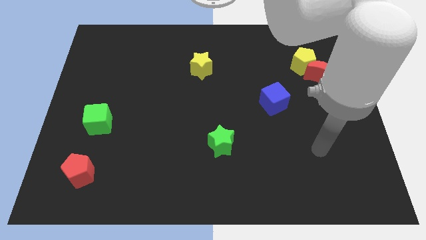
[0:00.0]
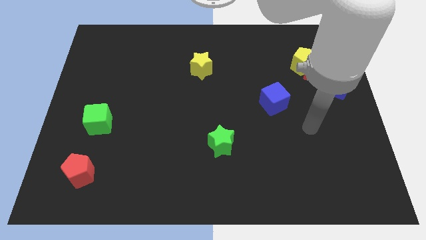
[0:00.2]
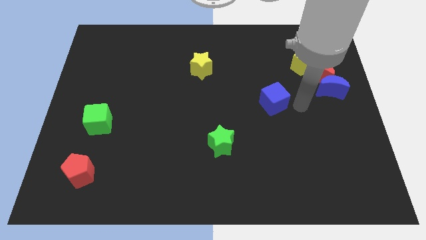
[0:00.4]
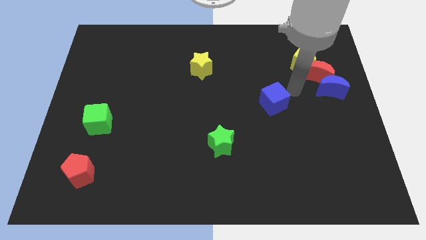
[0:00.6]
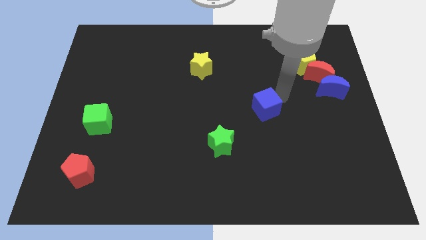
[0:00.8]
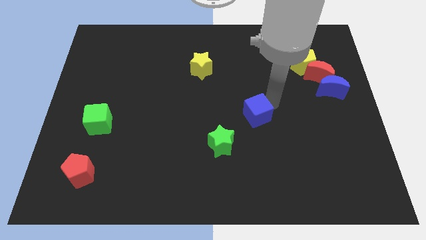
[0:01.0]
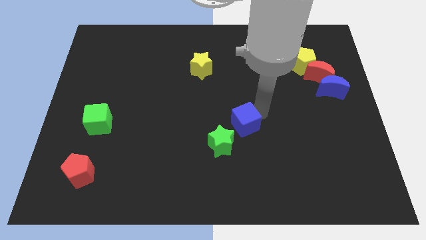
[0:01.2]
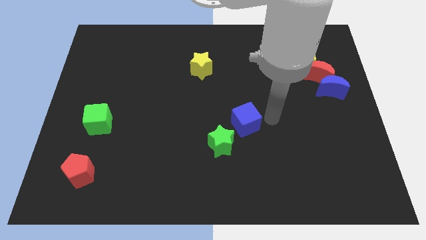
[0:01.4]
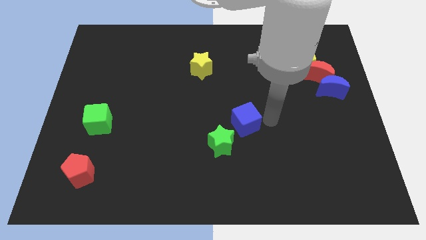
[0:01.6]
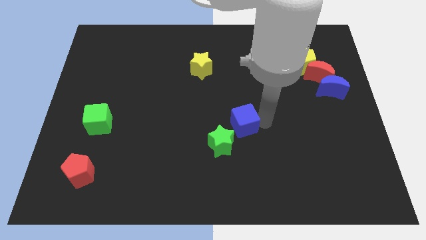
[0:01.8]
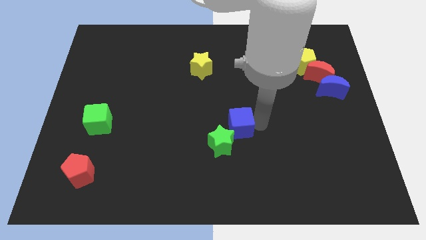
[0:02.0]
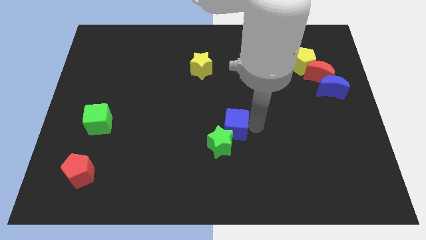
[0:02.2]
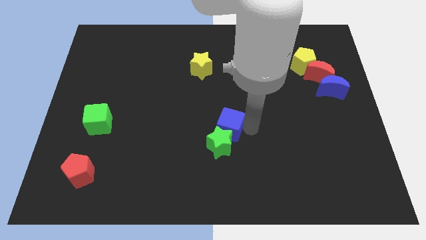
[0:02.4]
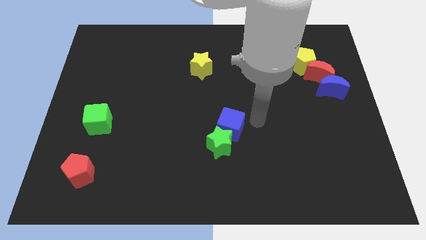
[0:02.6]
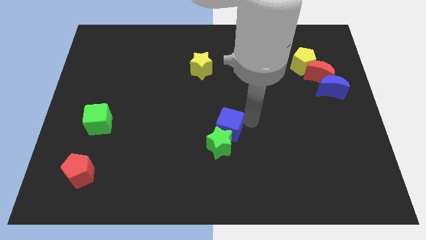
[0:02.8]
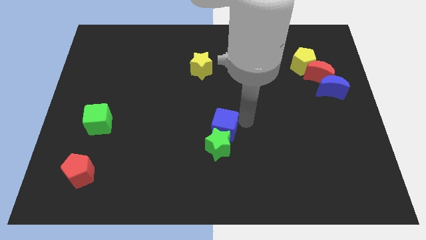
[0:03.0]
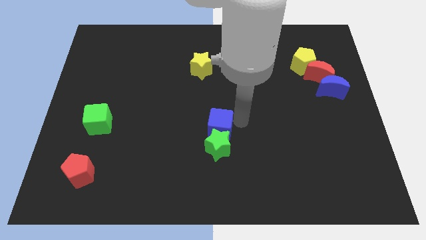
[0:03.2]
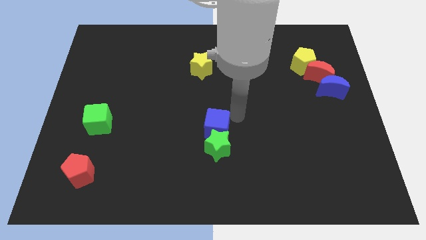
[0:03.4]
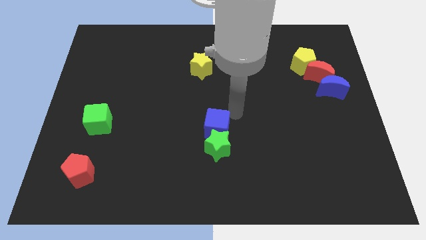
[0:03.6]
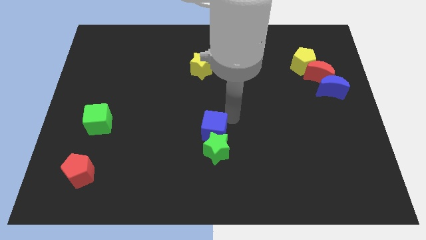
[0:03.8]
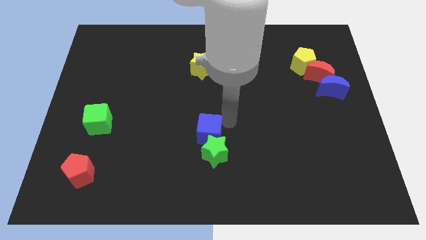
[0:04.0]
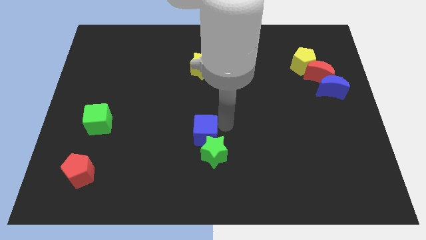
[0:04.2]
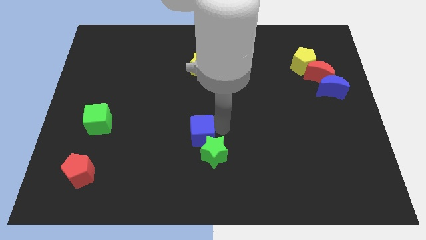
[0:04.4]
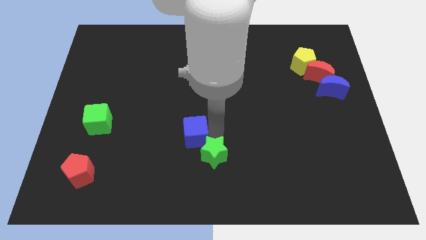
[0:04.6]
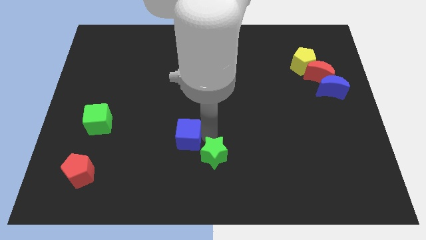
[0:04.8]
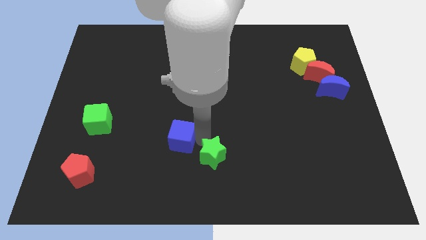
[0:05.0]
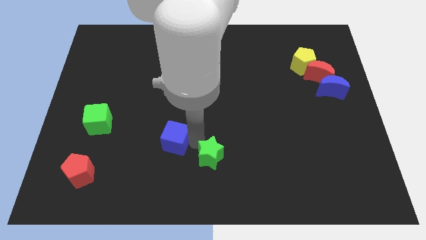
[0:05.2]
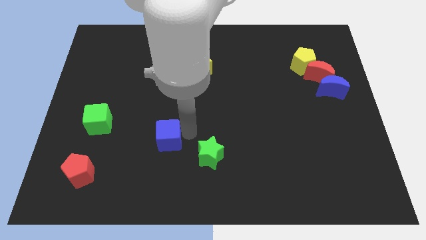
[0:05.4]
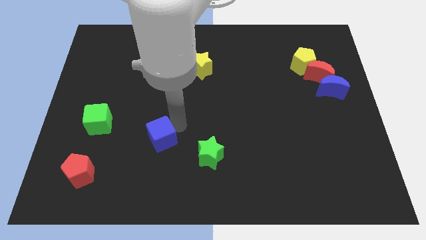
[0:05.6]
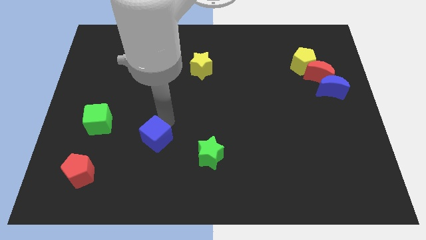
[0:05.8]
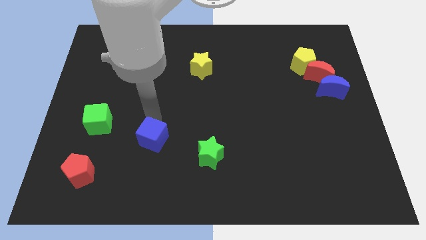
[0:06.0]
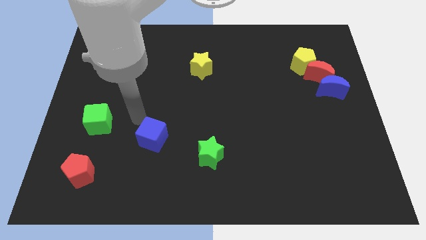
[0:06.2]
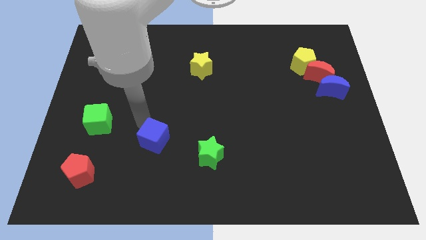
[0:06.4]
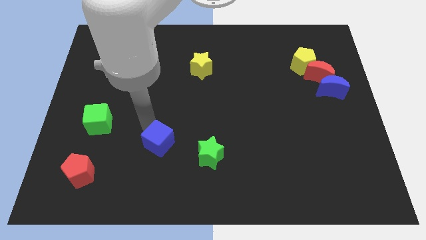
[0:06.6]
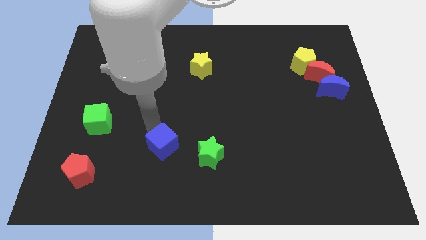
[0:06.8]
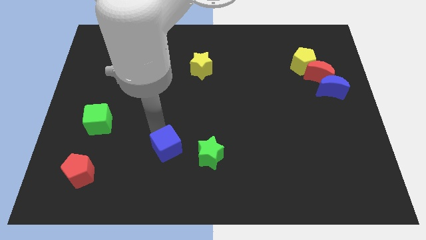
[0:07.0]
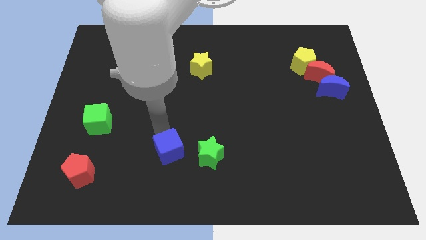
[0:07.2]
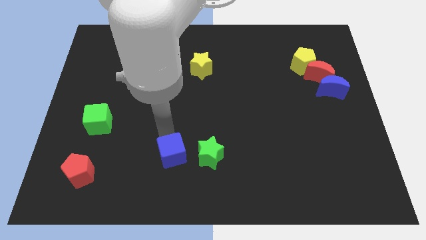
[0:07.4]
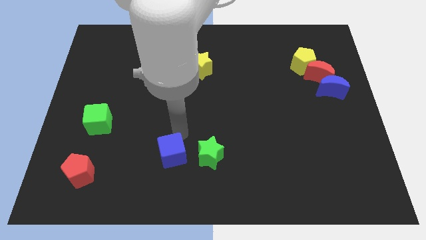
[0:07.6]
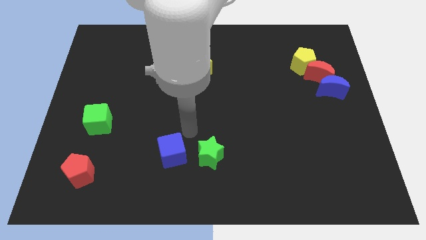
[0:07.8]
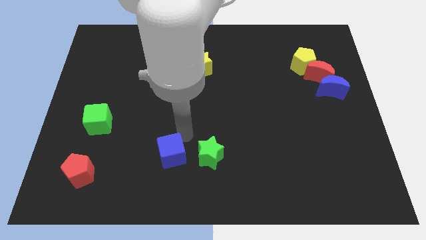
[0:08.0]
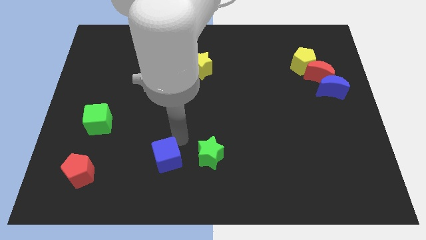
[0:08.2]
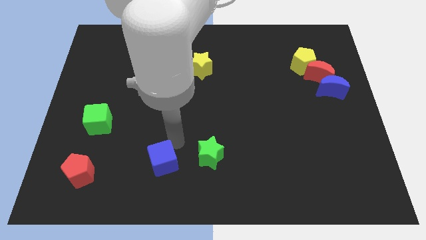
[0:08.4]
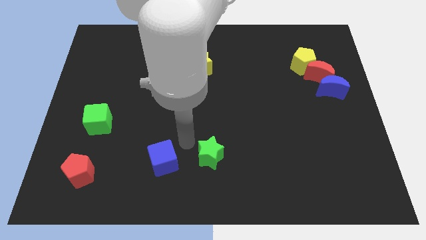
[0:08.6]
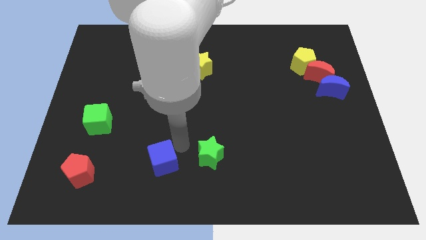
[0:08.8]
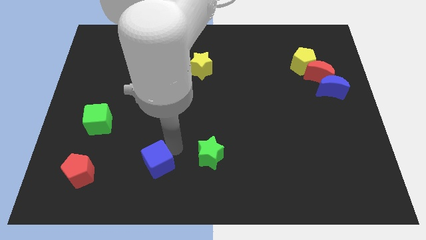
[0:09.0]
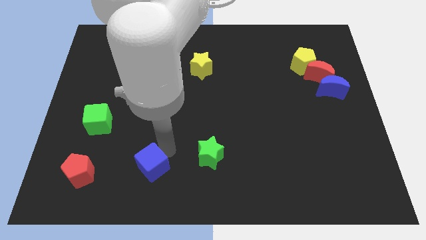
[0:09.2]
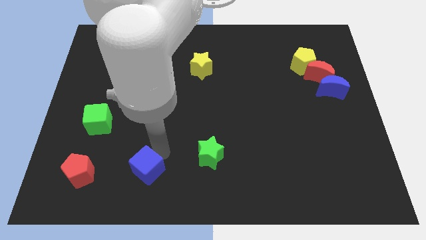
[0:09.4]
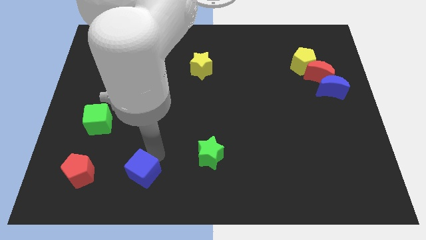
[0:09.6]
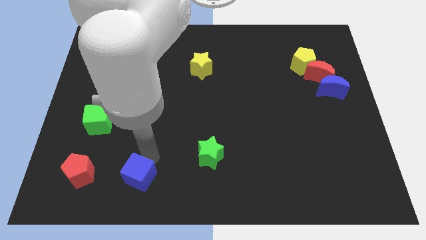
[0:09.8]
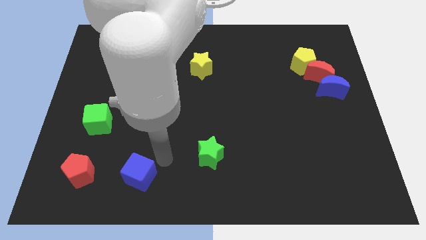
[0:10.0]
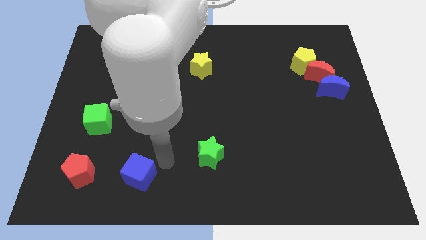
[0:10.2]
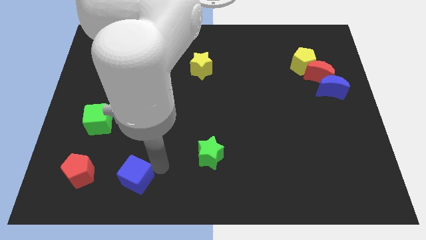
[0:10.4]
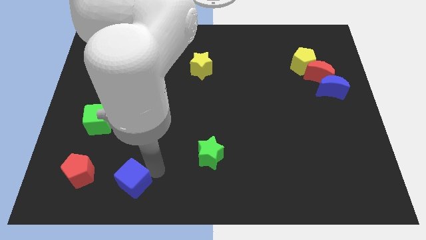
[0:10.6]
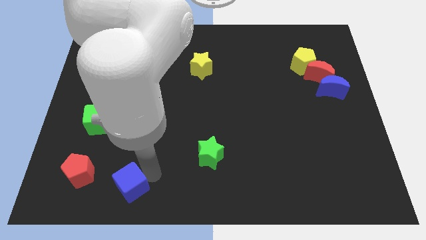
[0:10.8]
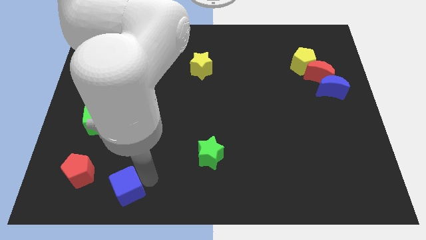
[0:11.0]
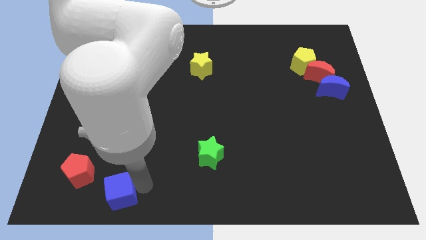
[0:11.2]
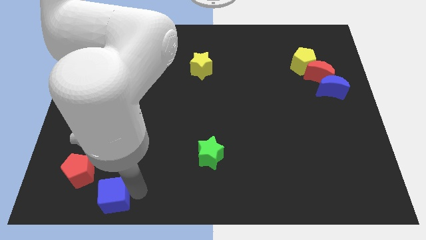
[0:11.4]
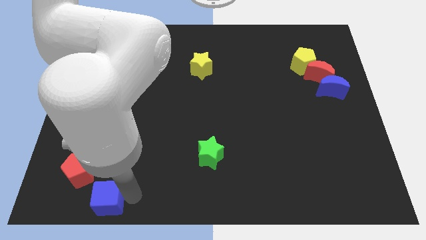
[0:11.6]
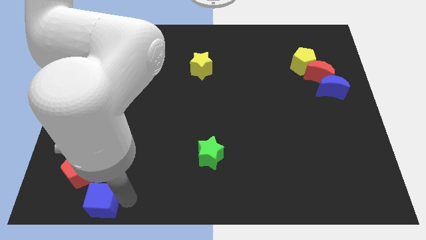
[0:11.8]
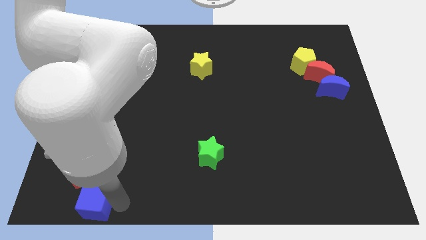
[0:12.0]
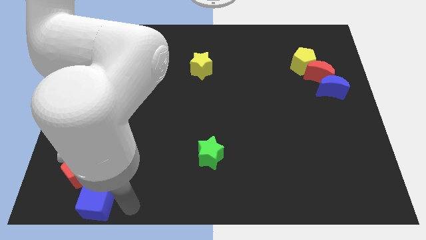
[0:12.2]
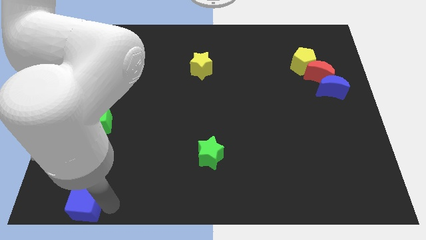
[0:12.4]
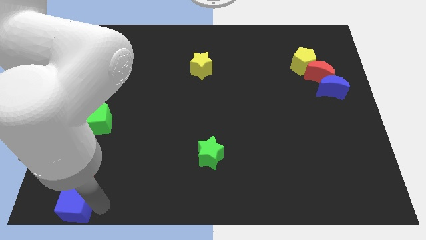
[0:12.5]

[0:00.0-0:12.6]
push the blue cube to the lower left corner
